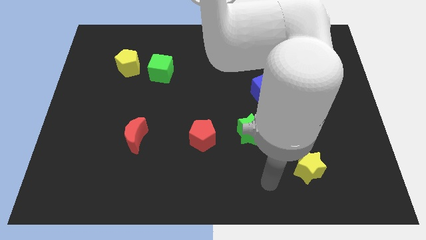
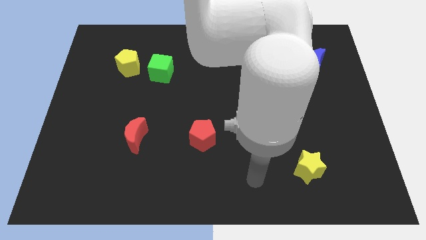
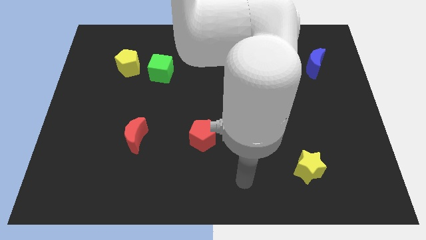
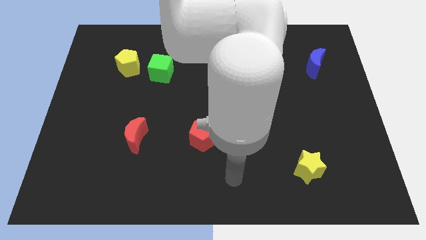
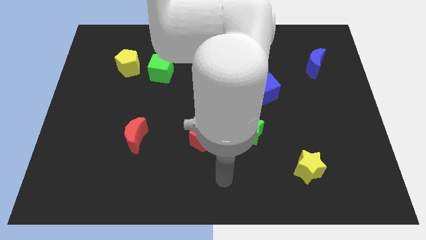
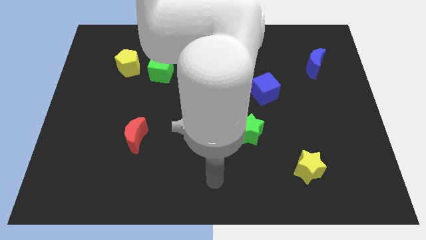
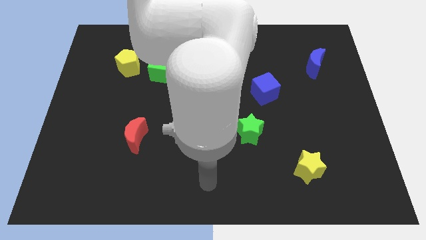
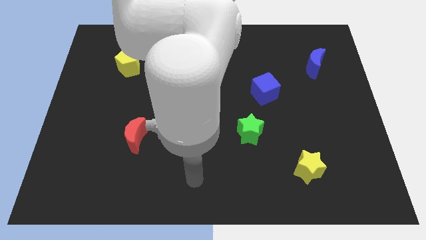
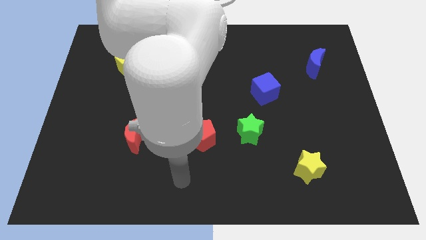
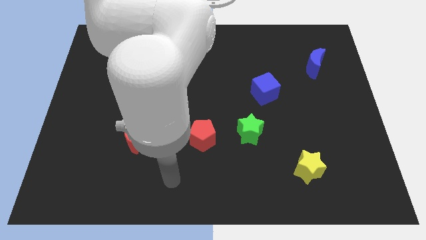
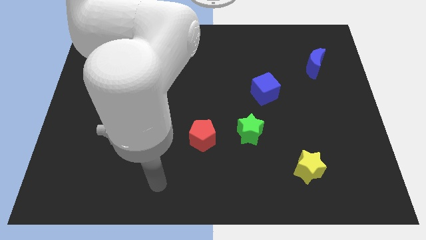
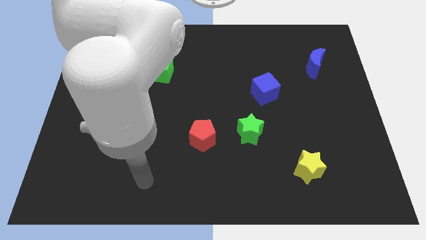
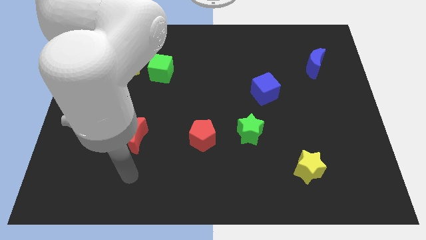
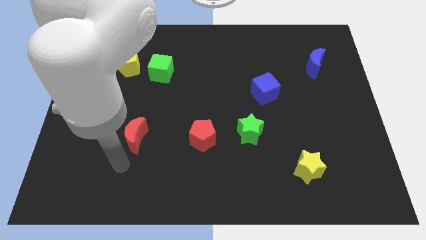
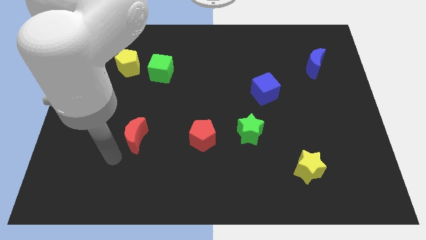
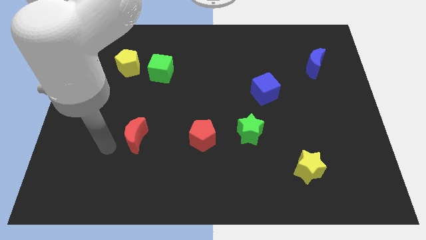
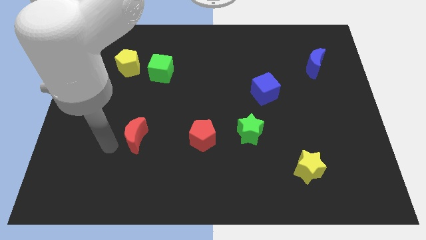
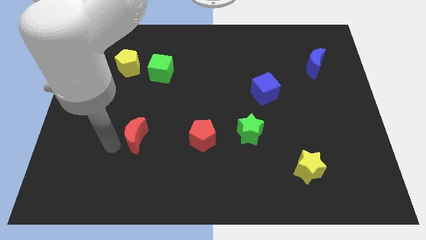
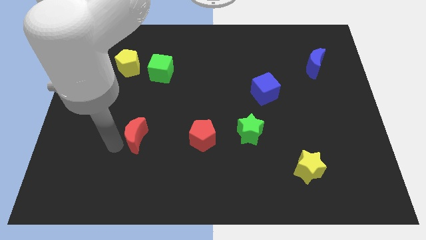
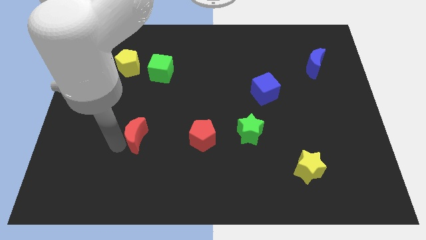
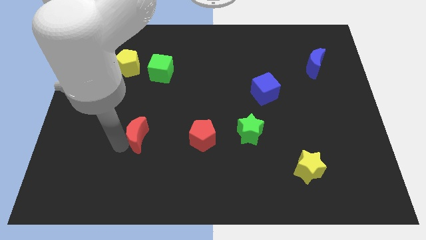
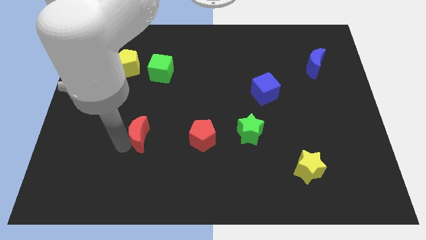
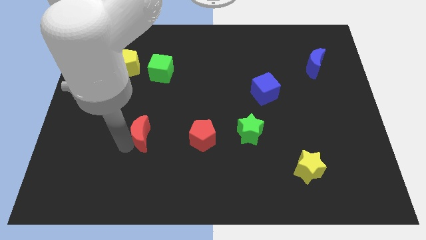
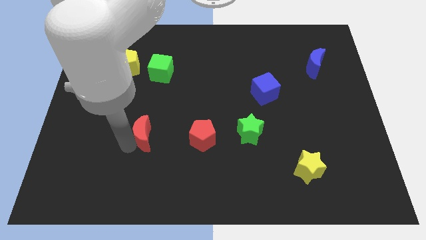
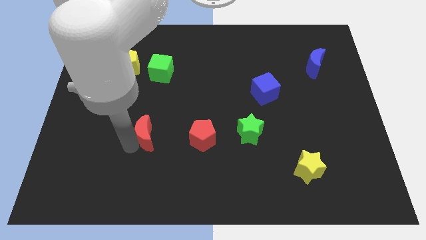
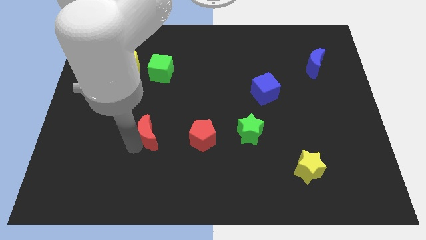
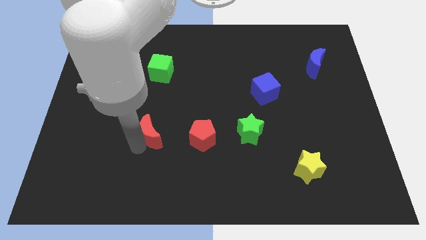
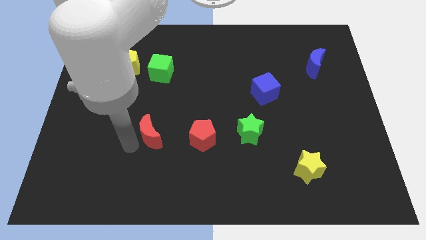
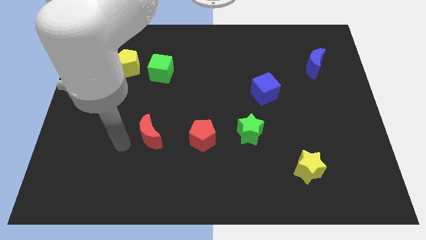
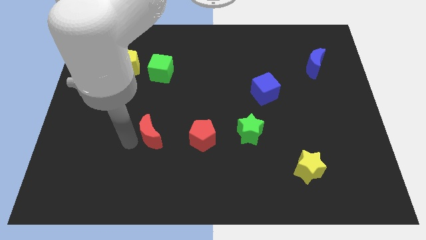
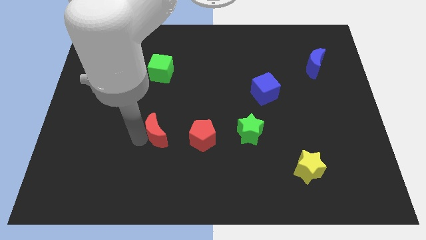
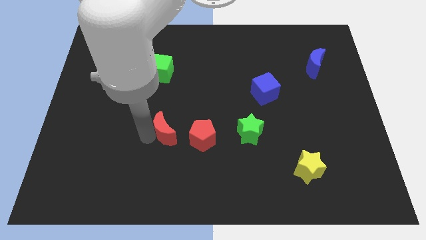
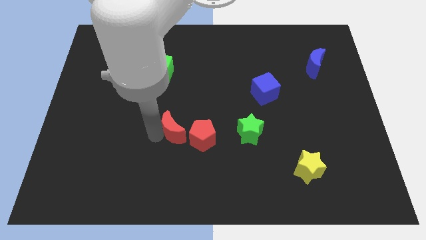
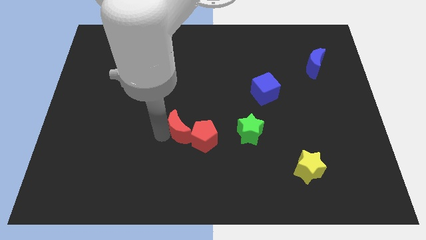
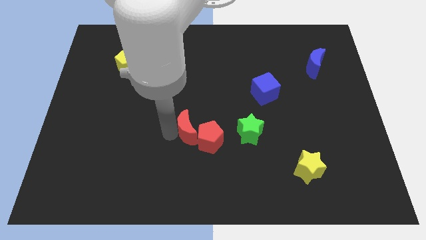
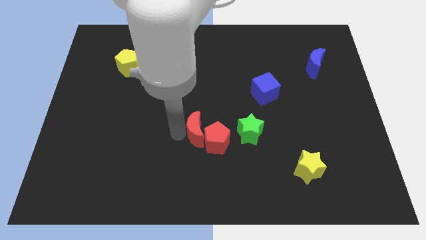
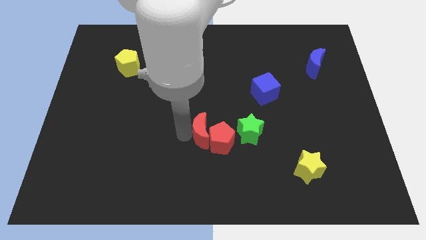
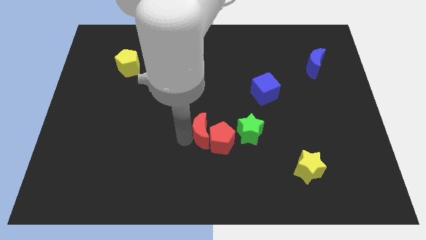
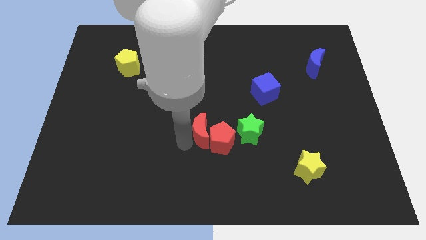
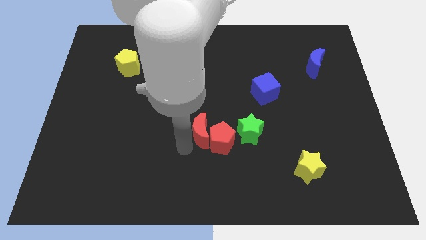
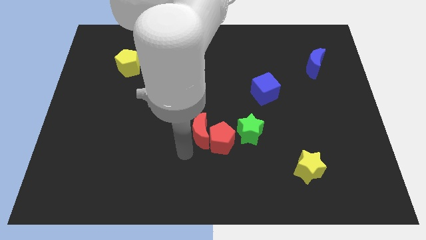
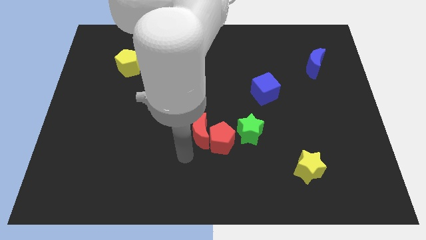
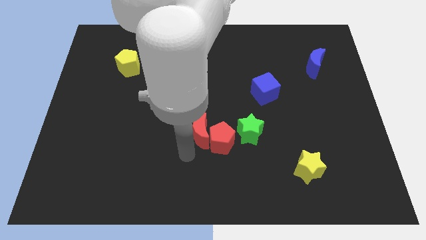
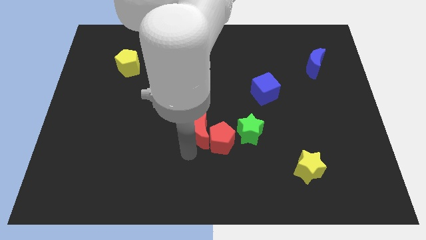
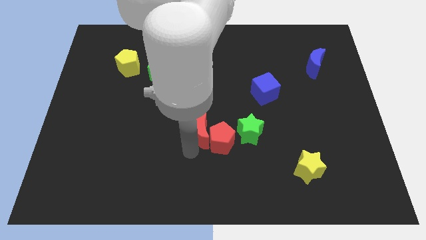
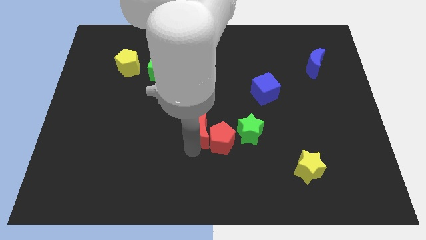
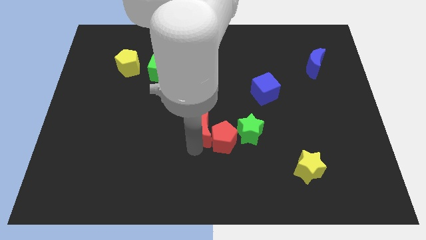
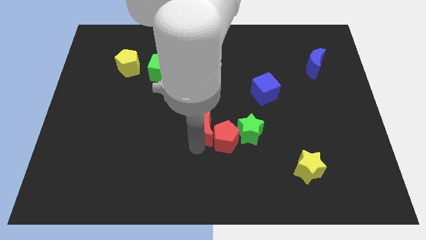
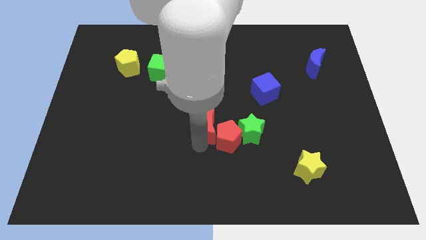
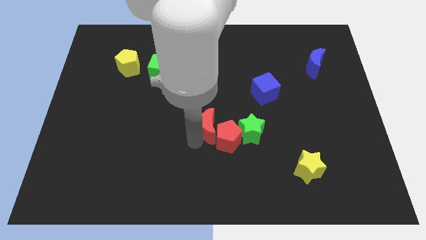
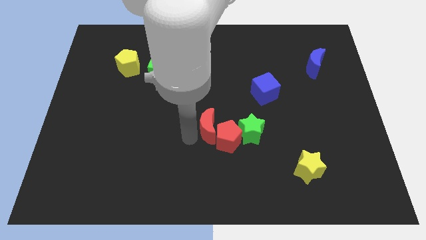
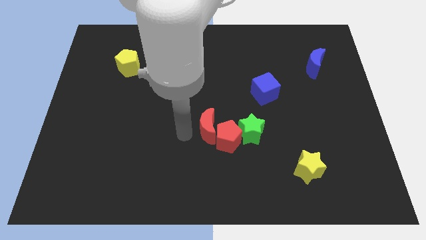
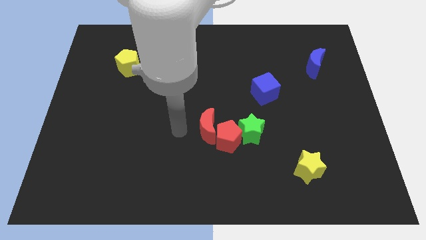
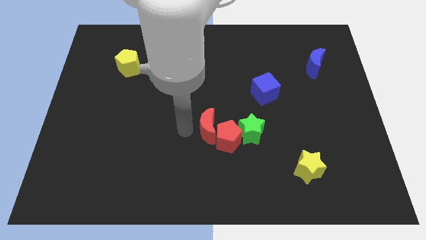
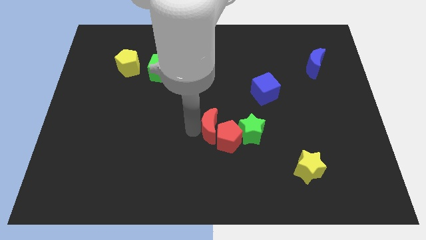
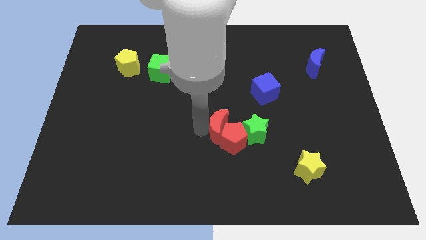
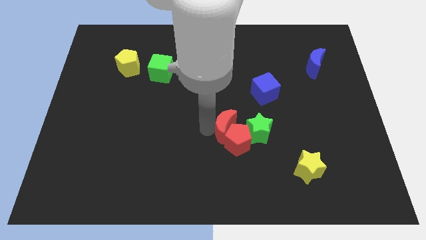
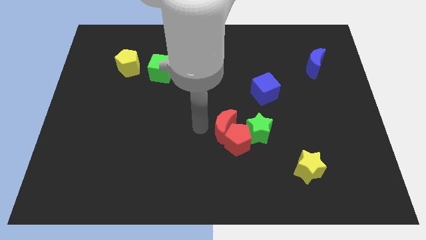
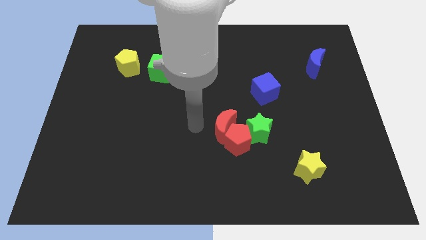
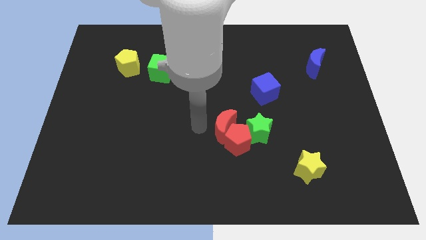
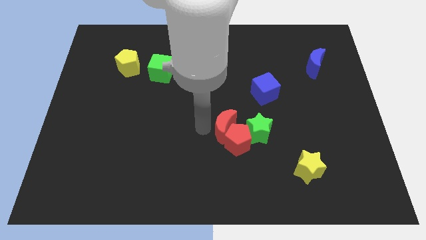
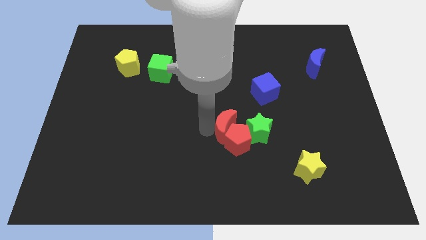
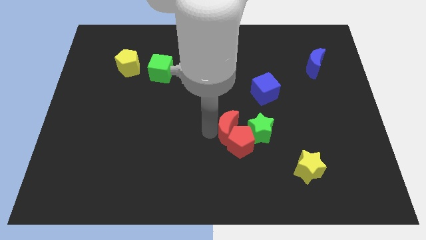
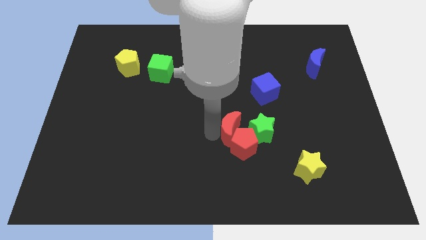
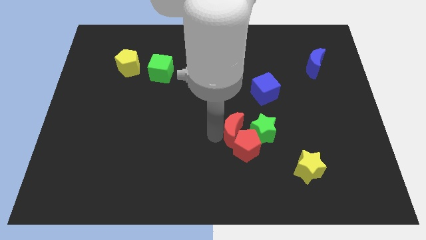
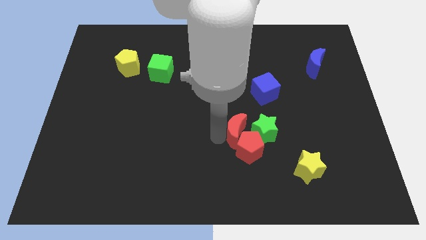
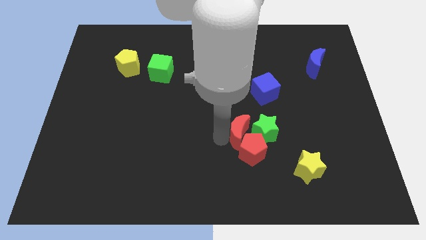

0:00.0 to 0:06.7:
slide the red moon next to the green star
